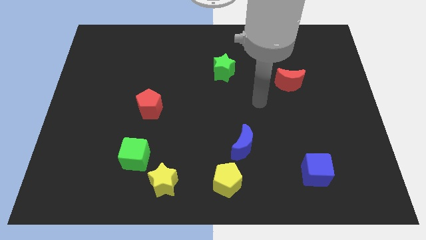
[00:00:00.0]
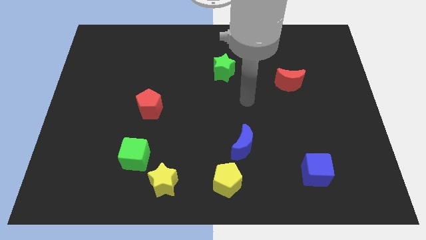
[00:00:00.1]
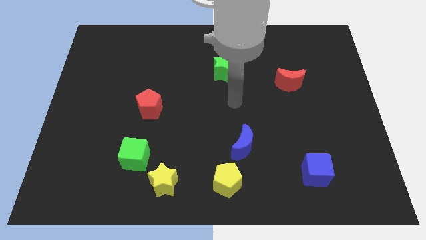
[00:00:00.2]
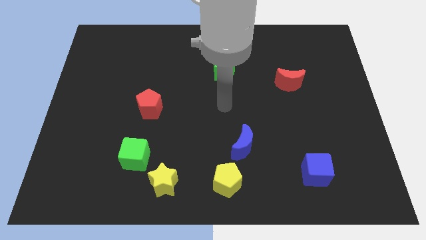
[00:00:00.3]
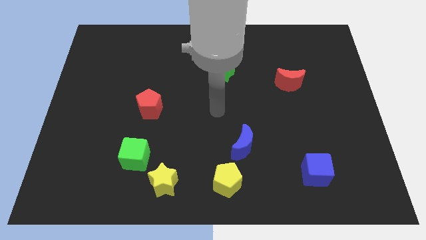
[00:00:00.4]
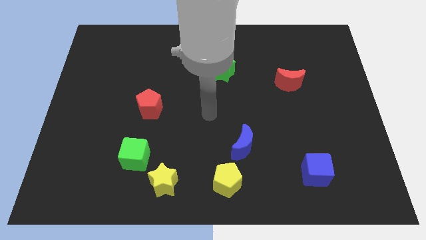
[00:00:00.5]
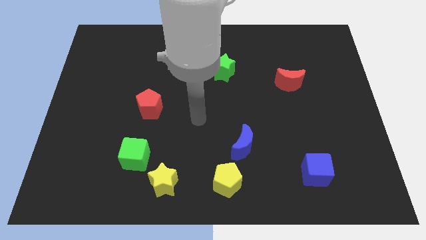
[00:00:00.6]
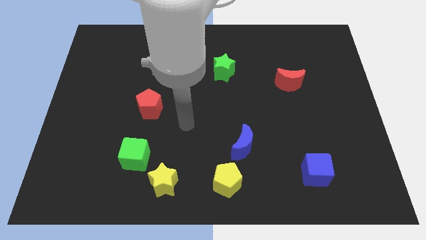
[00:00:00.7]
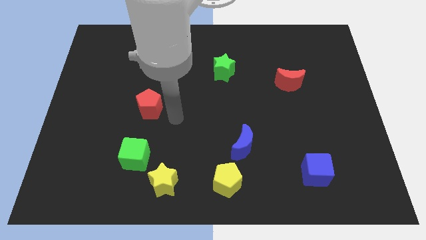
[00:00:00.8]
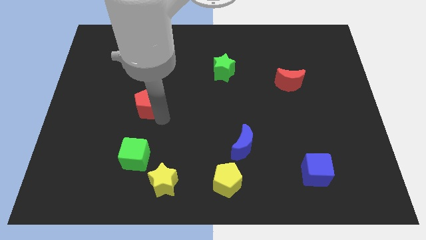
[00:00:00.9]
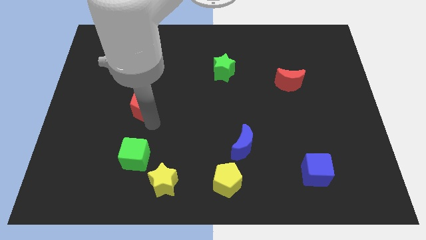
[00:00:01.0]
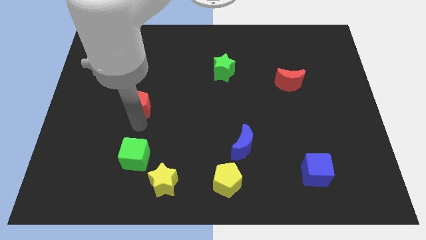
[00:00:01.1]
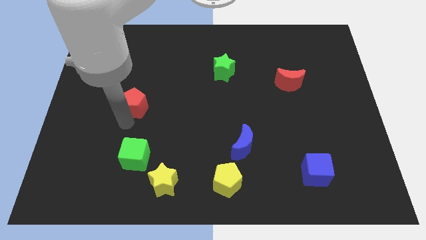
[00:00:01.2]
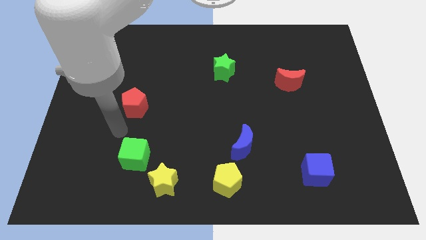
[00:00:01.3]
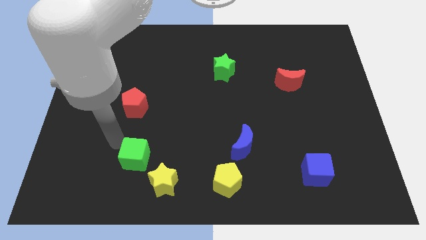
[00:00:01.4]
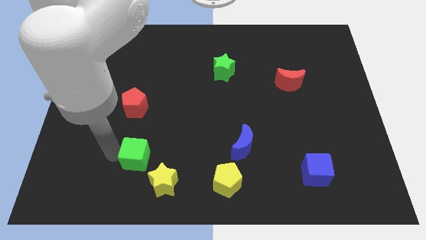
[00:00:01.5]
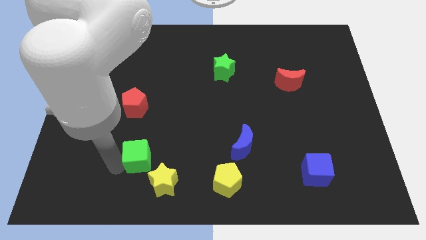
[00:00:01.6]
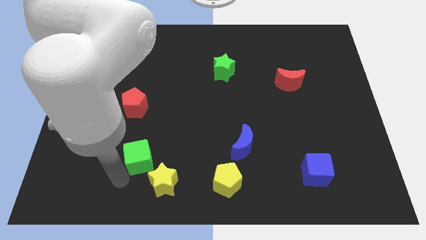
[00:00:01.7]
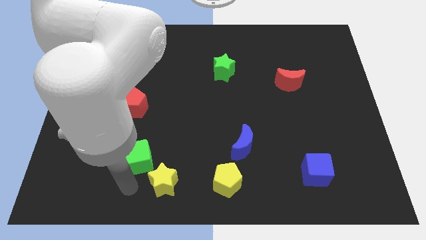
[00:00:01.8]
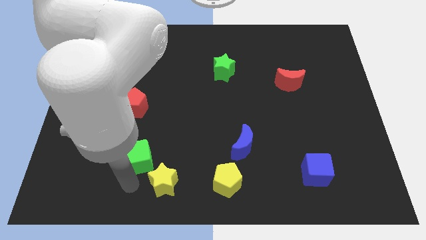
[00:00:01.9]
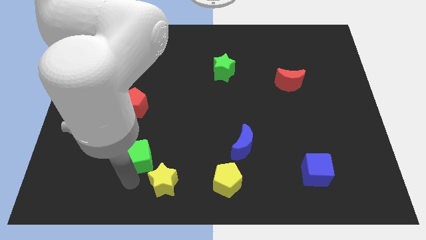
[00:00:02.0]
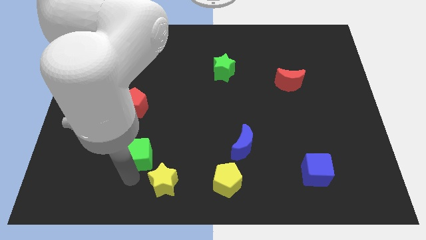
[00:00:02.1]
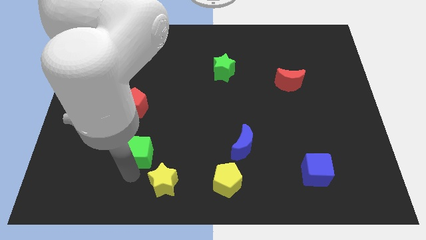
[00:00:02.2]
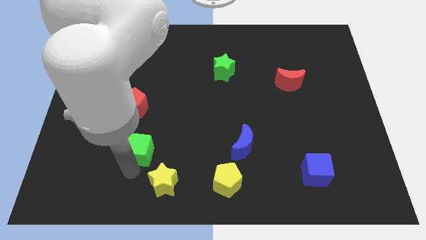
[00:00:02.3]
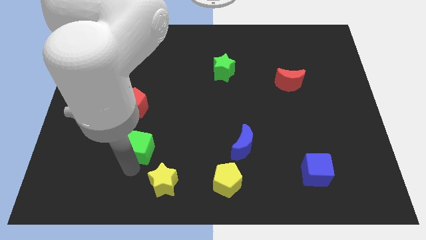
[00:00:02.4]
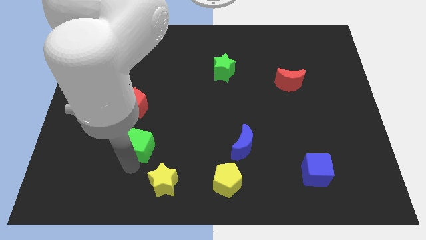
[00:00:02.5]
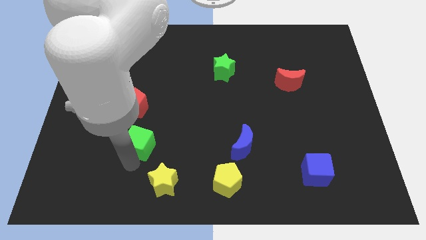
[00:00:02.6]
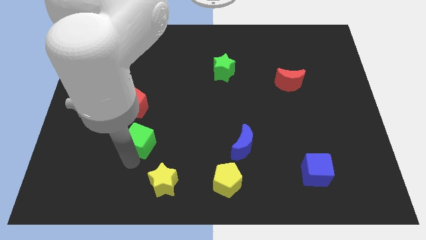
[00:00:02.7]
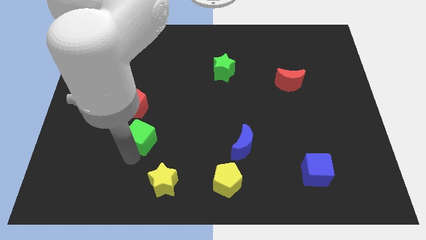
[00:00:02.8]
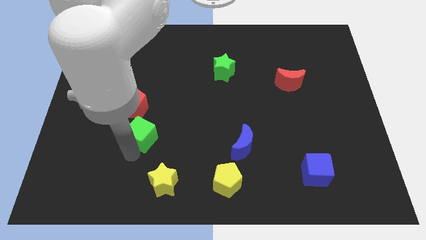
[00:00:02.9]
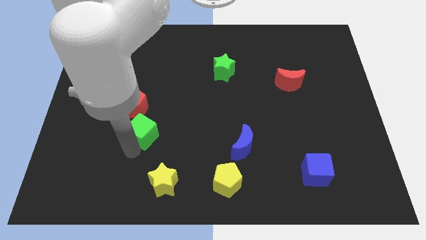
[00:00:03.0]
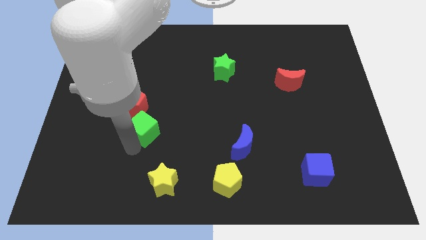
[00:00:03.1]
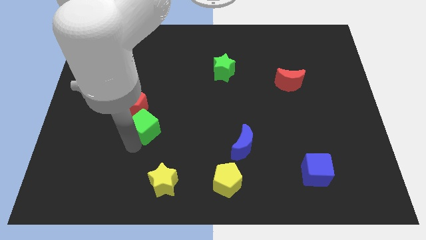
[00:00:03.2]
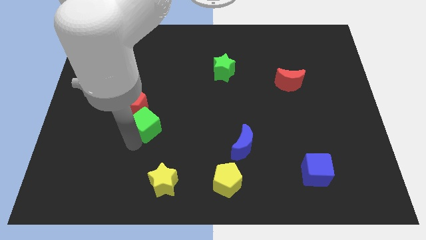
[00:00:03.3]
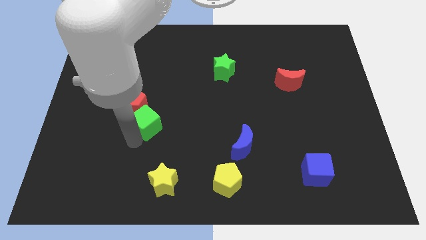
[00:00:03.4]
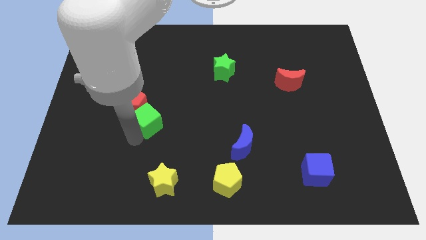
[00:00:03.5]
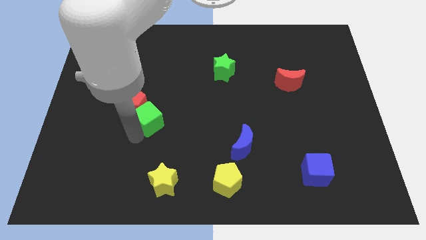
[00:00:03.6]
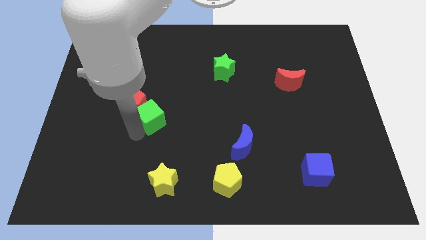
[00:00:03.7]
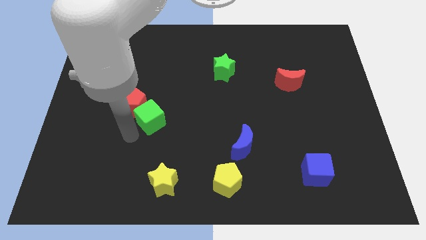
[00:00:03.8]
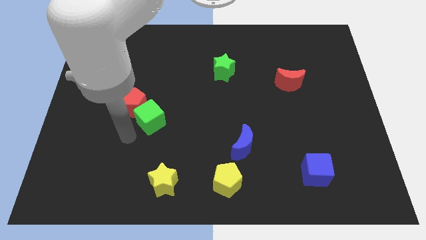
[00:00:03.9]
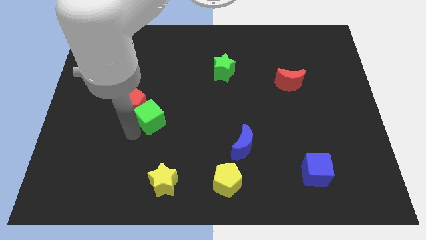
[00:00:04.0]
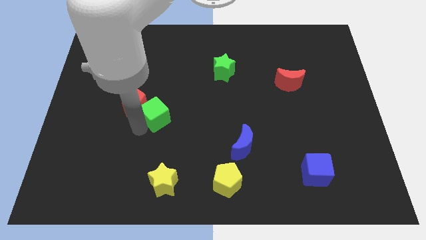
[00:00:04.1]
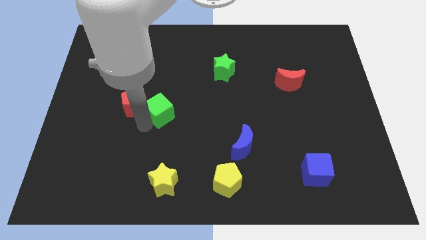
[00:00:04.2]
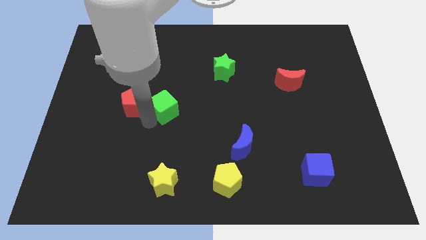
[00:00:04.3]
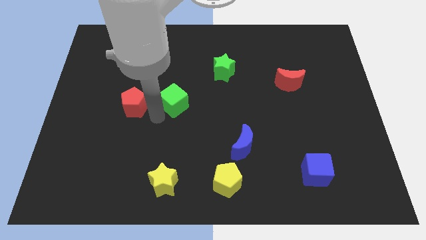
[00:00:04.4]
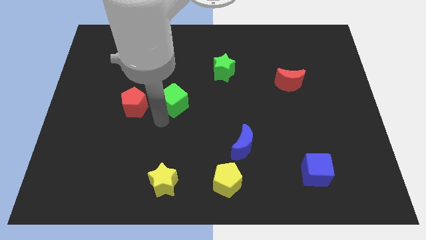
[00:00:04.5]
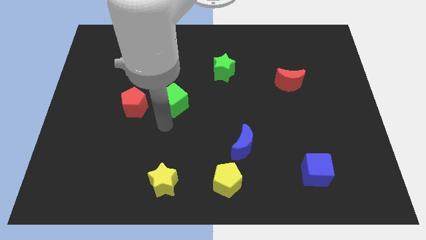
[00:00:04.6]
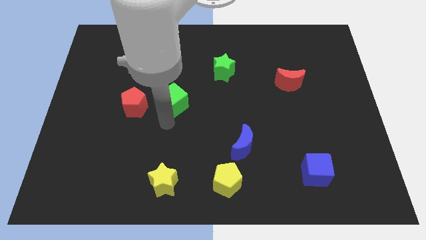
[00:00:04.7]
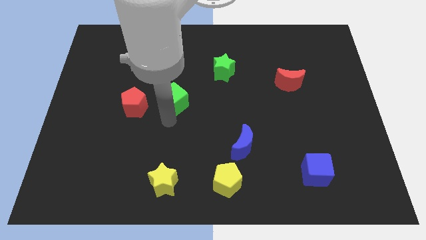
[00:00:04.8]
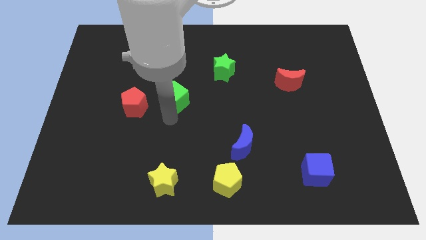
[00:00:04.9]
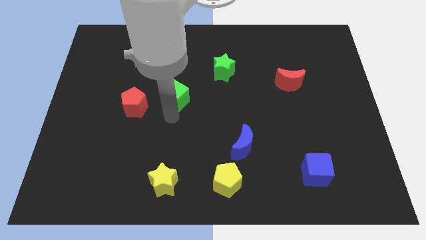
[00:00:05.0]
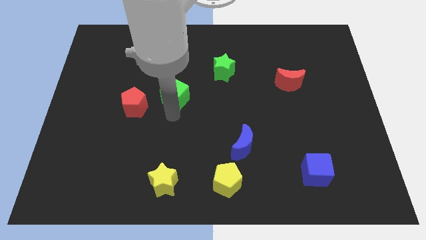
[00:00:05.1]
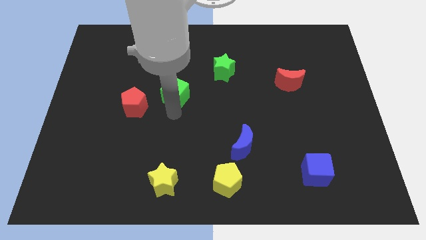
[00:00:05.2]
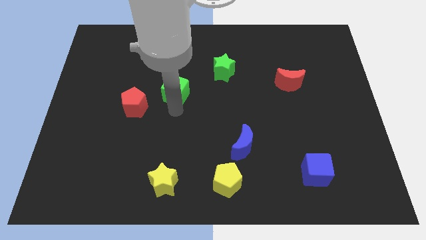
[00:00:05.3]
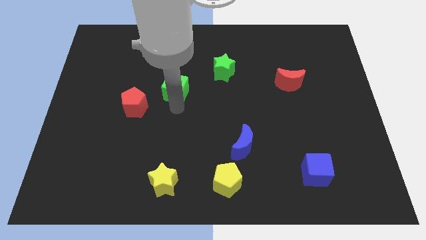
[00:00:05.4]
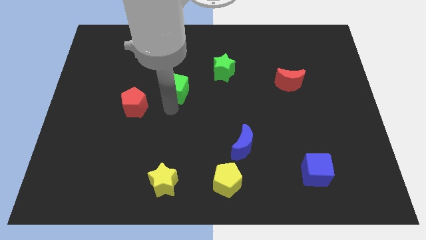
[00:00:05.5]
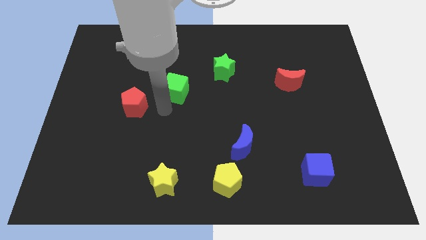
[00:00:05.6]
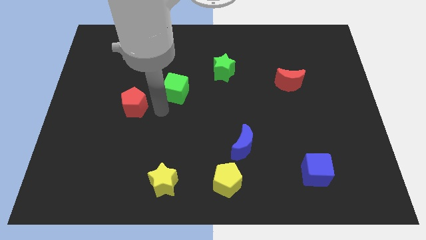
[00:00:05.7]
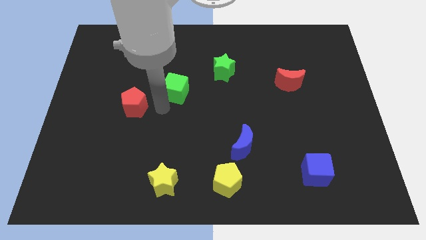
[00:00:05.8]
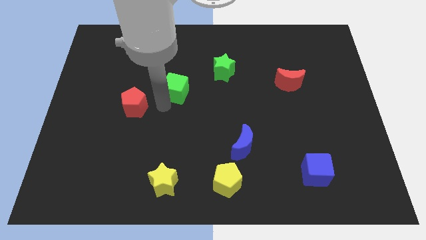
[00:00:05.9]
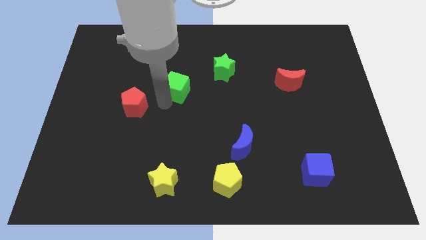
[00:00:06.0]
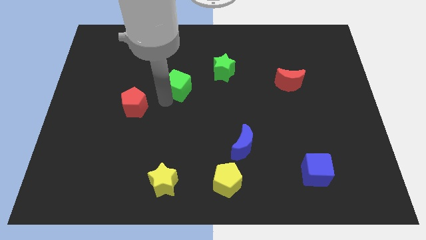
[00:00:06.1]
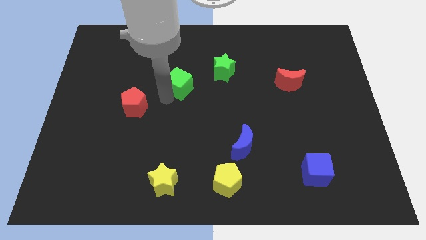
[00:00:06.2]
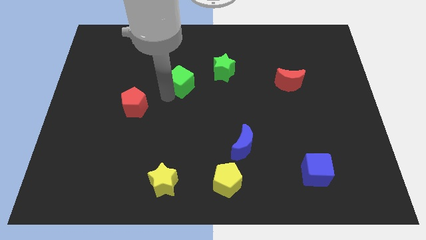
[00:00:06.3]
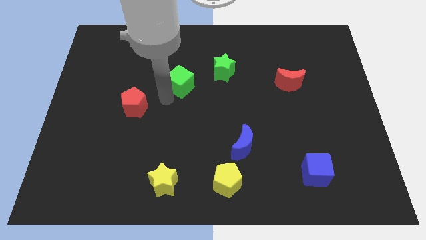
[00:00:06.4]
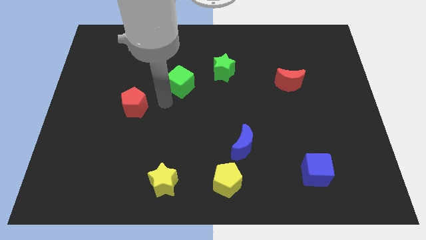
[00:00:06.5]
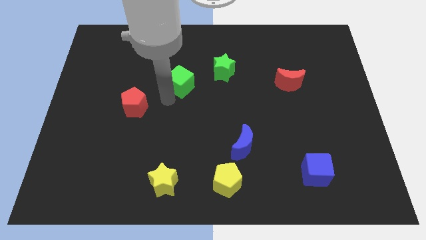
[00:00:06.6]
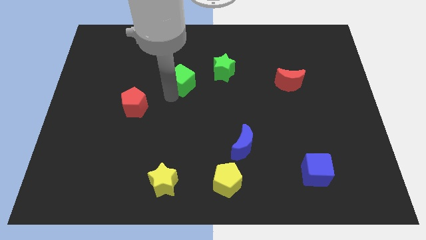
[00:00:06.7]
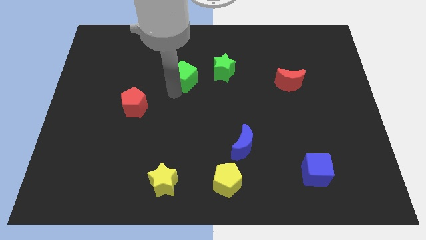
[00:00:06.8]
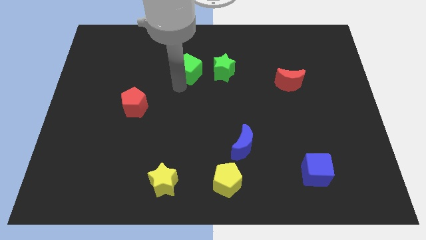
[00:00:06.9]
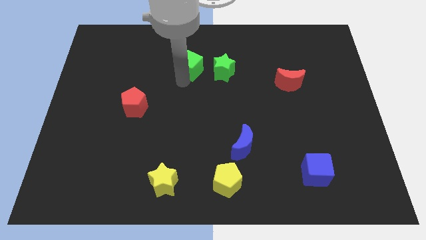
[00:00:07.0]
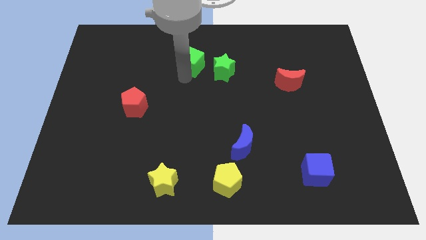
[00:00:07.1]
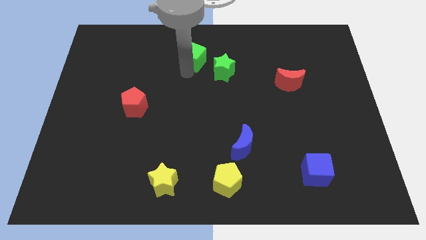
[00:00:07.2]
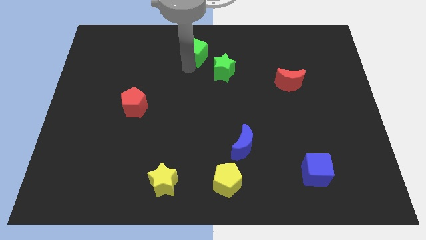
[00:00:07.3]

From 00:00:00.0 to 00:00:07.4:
push the green cube to the top
